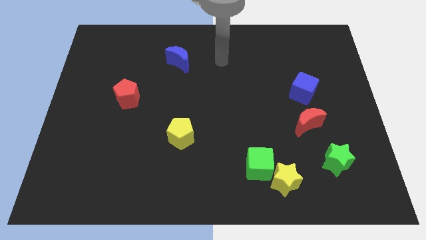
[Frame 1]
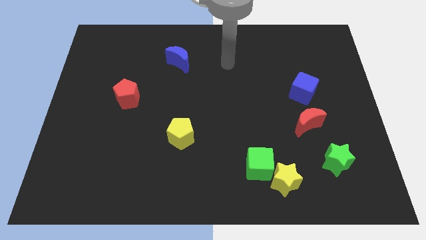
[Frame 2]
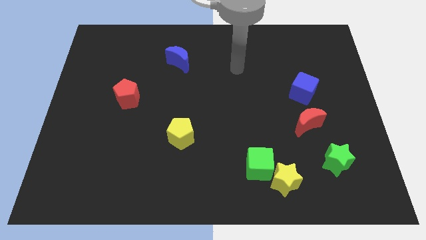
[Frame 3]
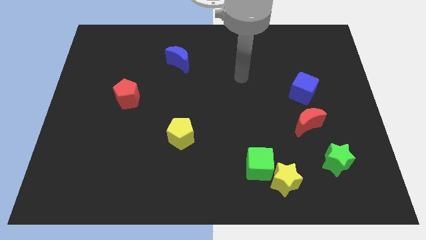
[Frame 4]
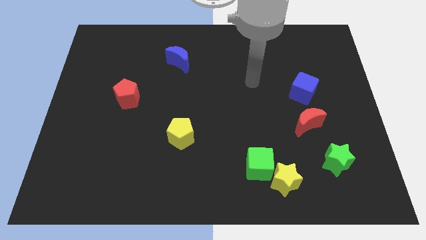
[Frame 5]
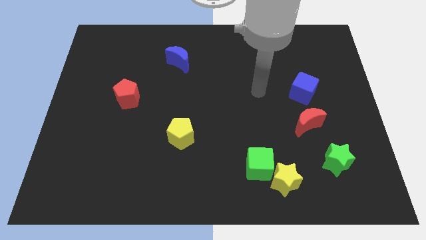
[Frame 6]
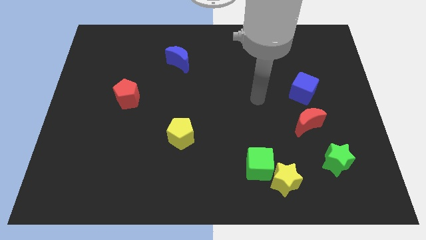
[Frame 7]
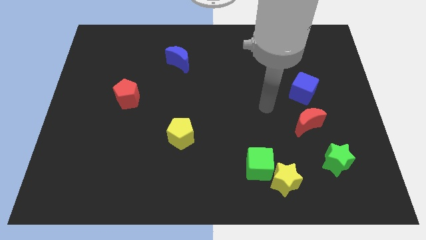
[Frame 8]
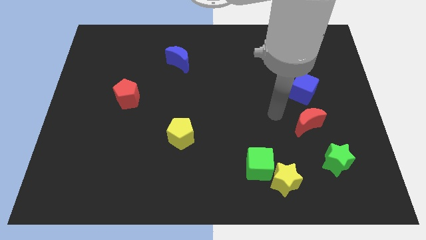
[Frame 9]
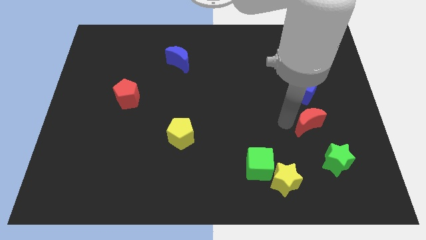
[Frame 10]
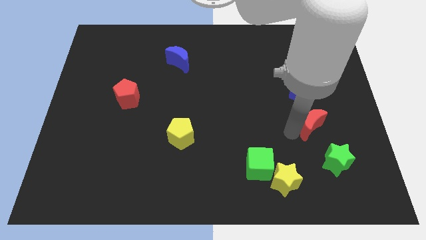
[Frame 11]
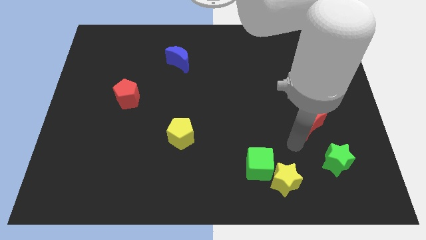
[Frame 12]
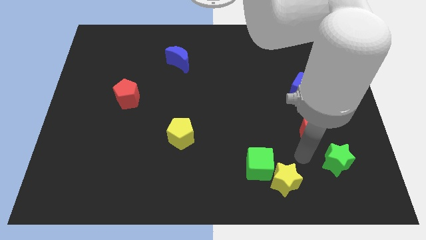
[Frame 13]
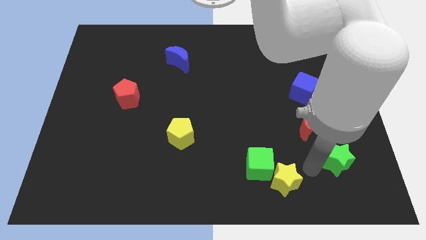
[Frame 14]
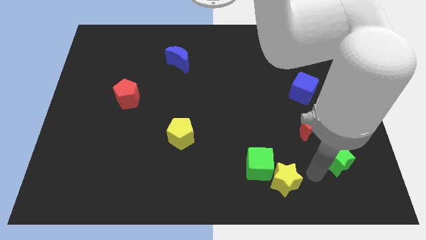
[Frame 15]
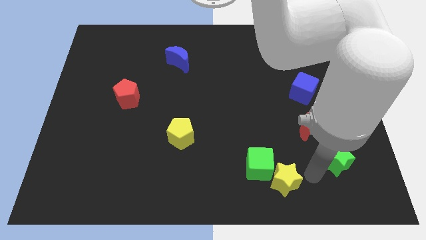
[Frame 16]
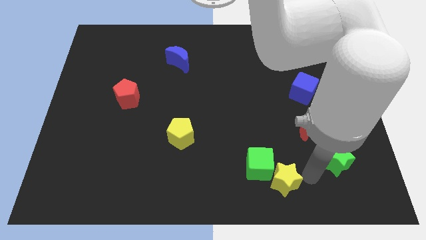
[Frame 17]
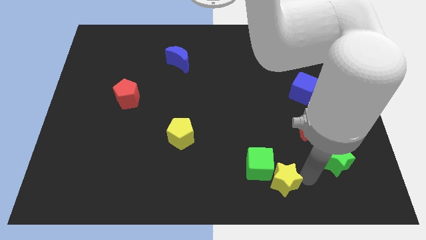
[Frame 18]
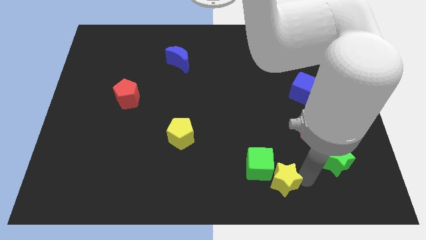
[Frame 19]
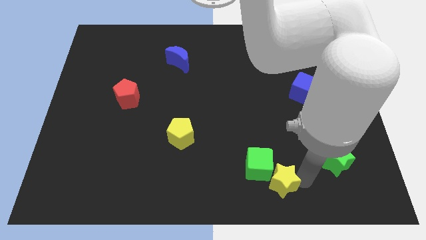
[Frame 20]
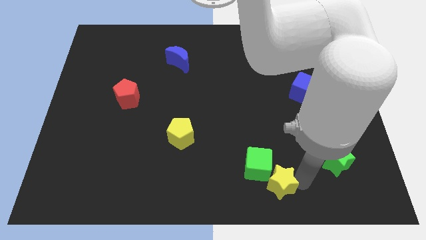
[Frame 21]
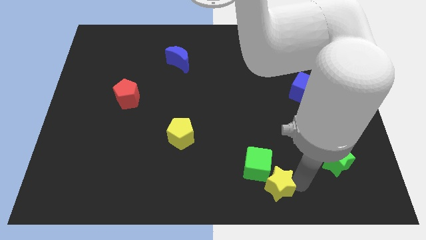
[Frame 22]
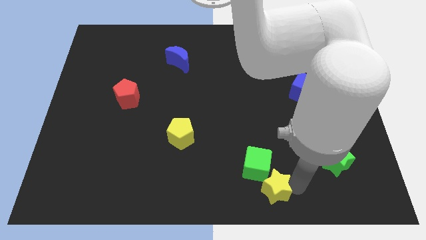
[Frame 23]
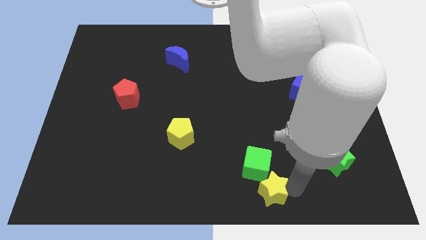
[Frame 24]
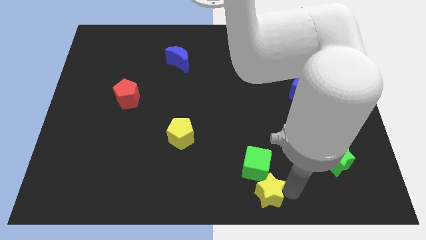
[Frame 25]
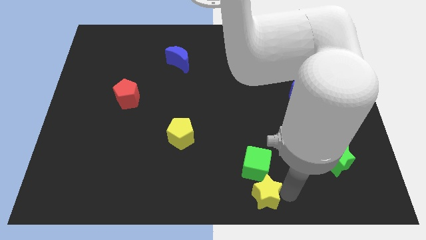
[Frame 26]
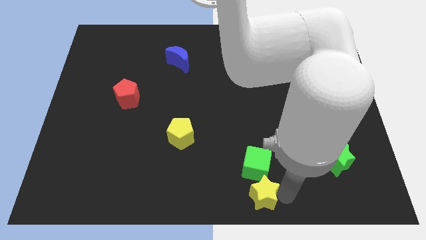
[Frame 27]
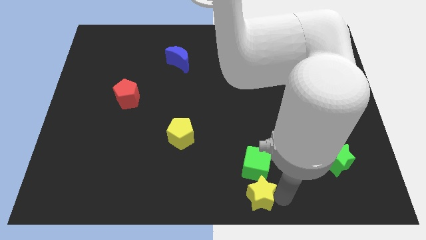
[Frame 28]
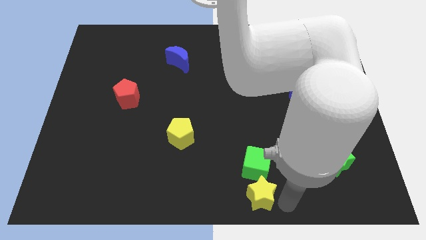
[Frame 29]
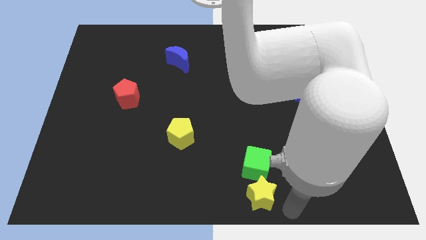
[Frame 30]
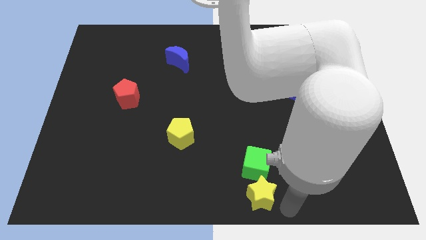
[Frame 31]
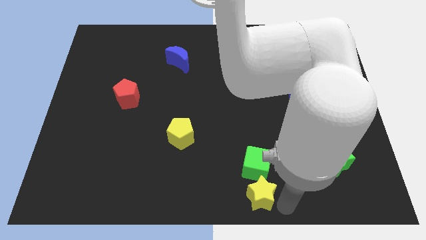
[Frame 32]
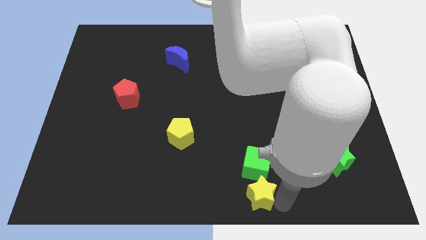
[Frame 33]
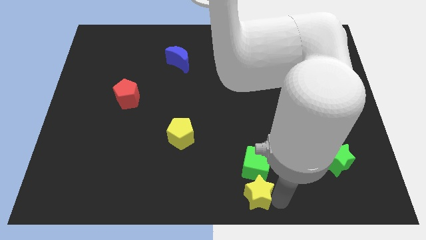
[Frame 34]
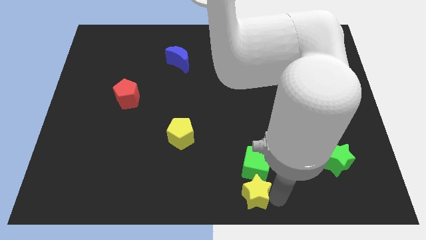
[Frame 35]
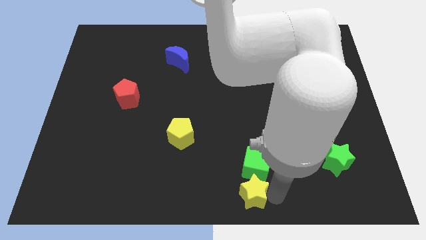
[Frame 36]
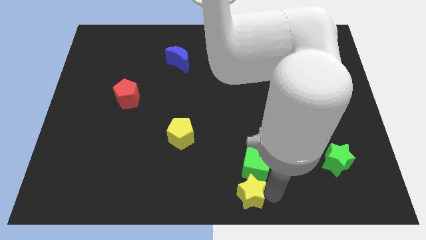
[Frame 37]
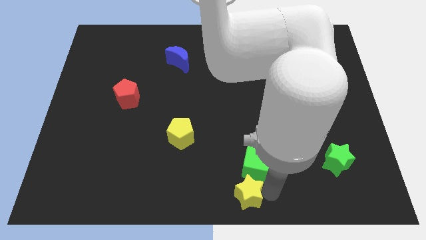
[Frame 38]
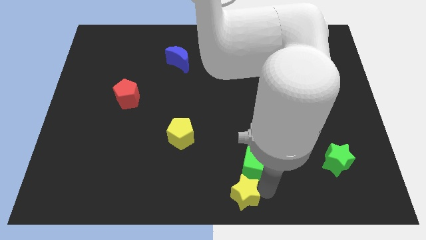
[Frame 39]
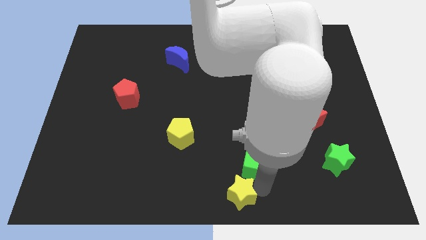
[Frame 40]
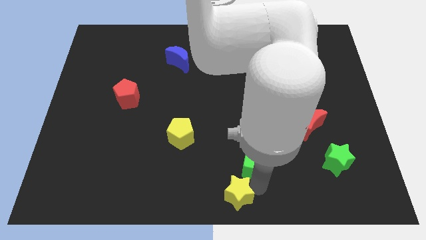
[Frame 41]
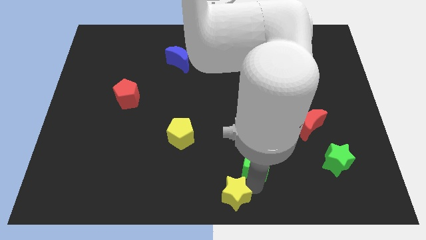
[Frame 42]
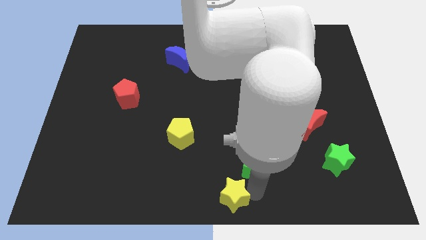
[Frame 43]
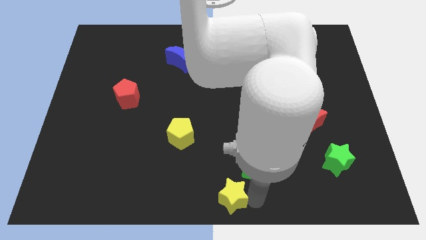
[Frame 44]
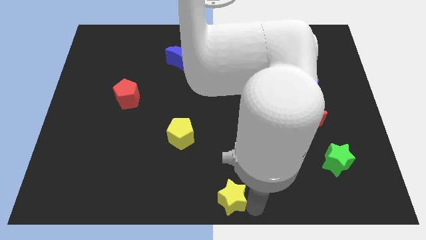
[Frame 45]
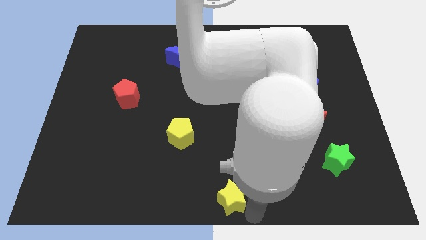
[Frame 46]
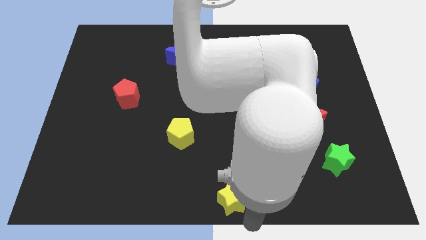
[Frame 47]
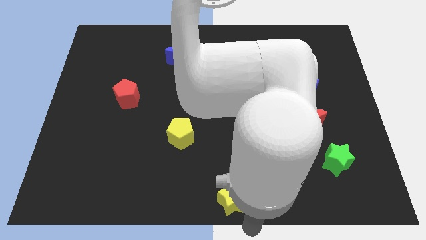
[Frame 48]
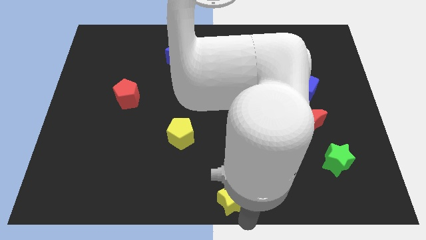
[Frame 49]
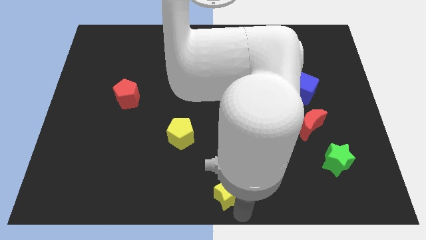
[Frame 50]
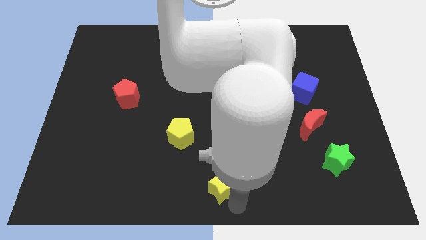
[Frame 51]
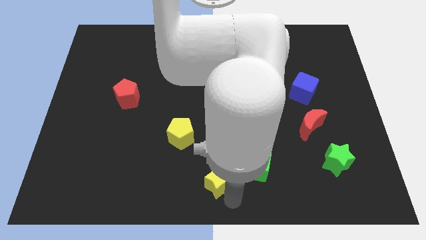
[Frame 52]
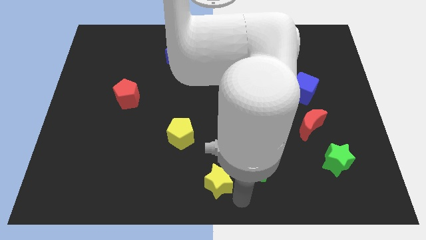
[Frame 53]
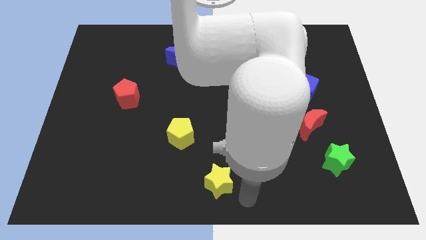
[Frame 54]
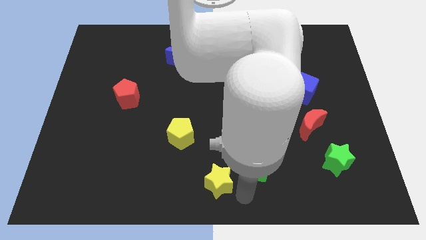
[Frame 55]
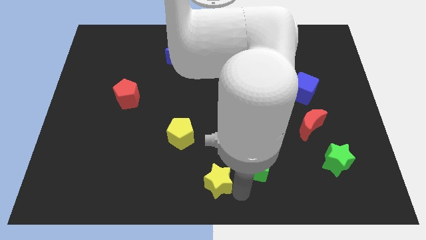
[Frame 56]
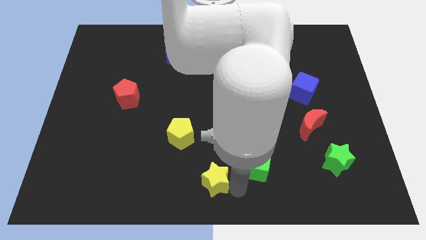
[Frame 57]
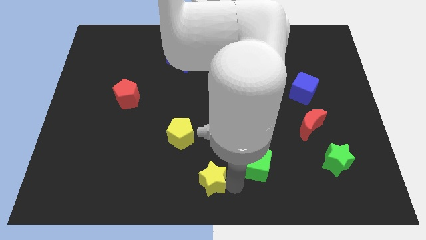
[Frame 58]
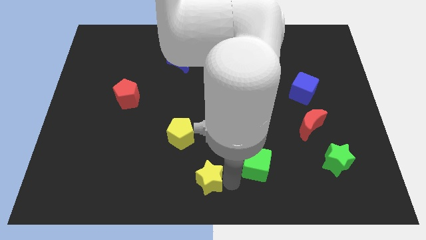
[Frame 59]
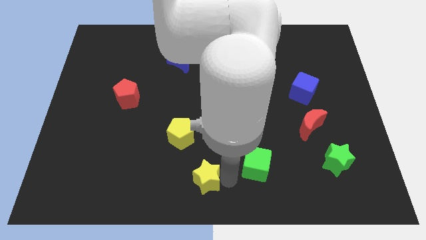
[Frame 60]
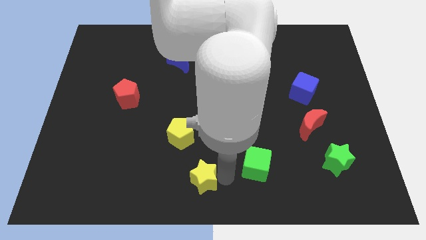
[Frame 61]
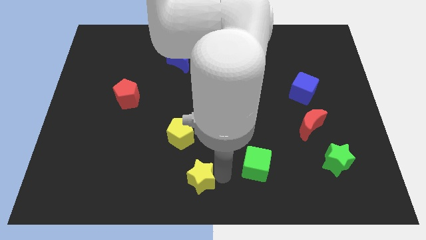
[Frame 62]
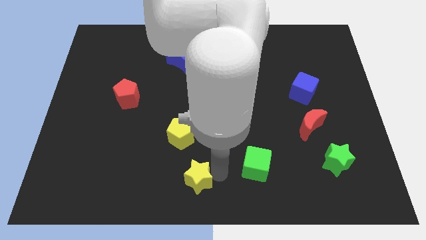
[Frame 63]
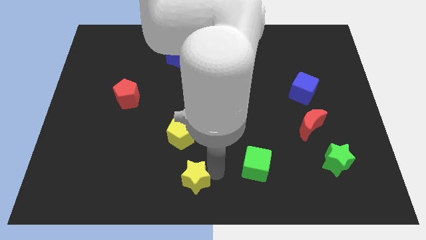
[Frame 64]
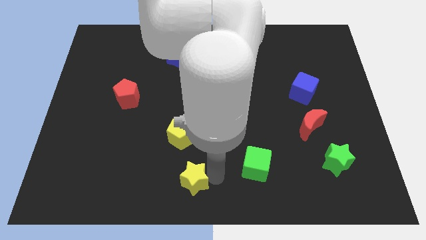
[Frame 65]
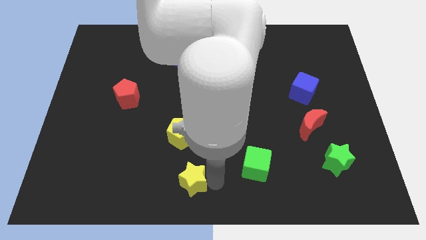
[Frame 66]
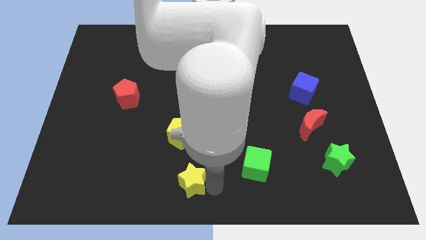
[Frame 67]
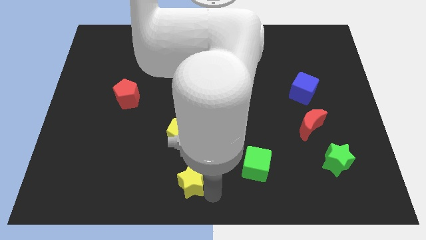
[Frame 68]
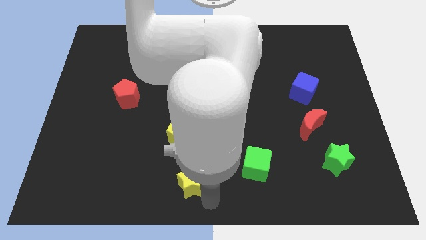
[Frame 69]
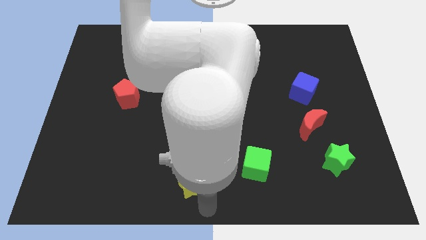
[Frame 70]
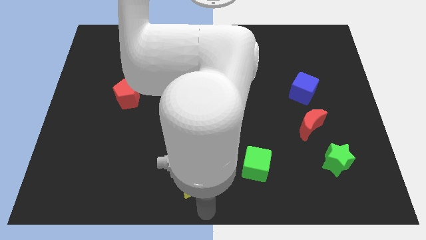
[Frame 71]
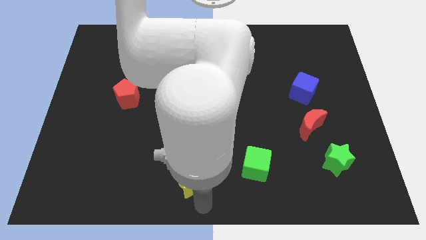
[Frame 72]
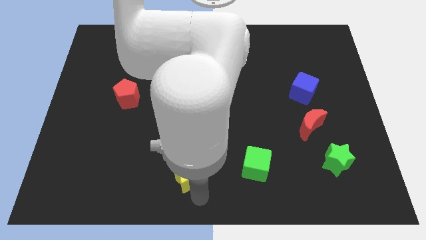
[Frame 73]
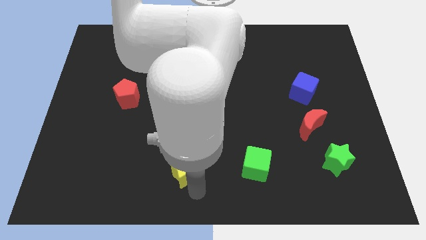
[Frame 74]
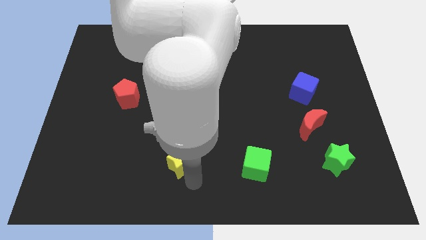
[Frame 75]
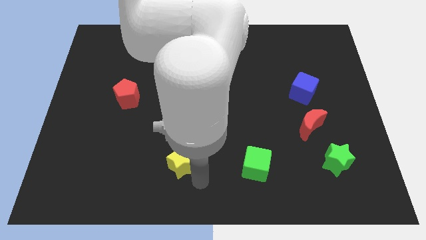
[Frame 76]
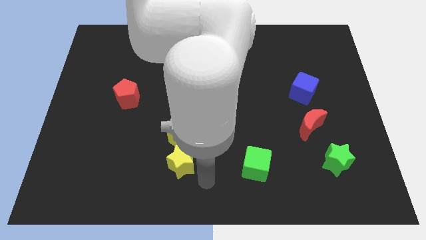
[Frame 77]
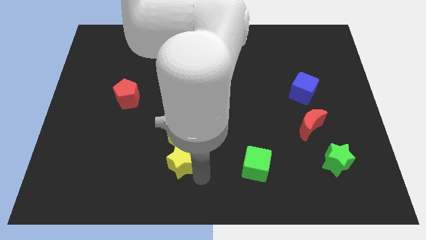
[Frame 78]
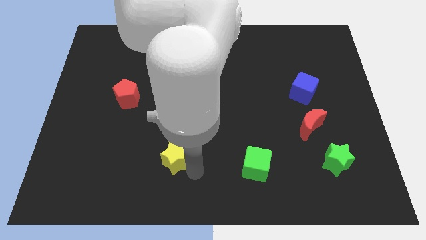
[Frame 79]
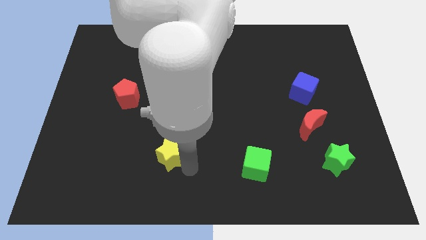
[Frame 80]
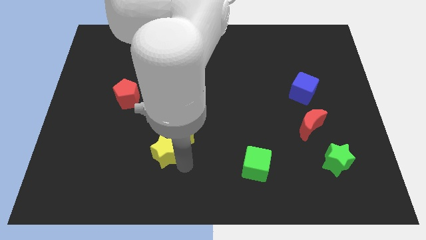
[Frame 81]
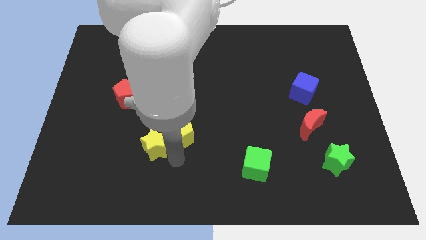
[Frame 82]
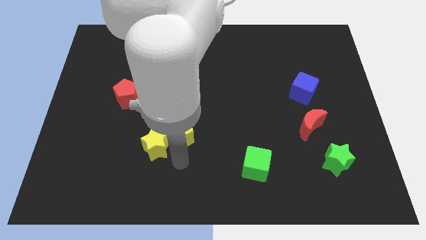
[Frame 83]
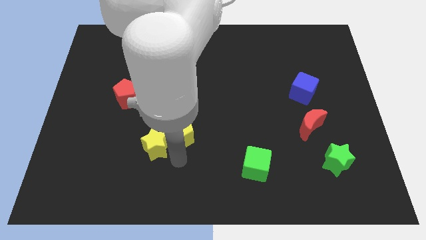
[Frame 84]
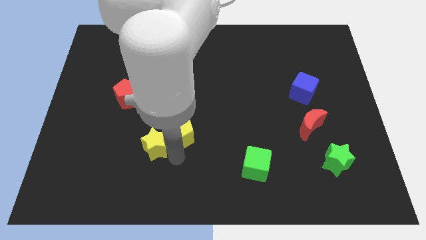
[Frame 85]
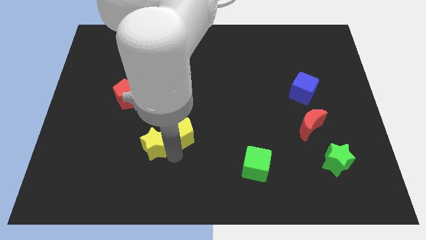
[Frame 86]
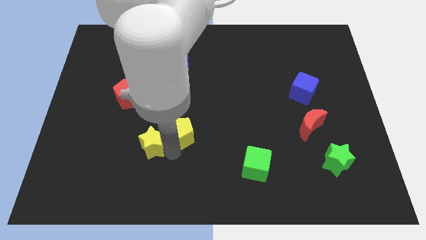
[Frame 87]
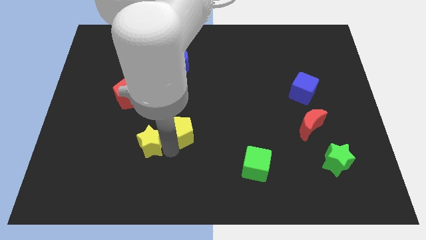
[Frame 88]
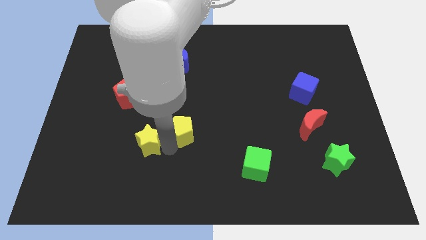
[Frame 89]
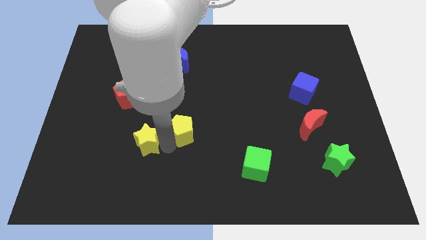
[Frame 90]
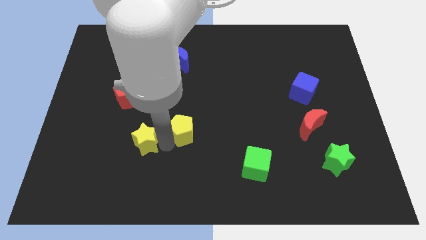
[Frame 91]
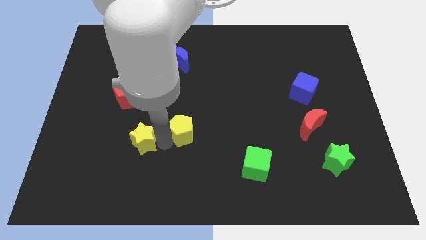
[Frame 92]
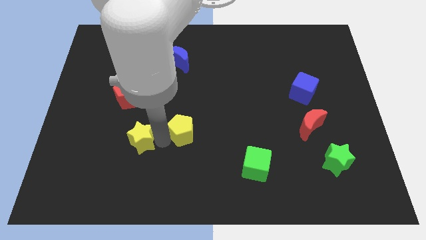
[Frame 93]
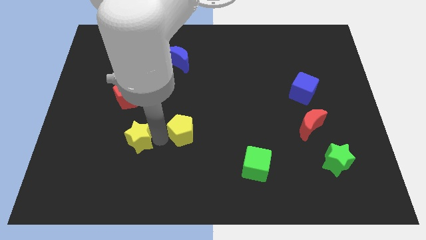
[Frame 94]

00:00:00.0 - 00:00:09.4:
push the yellow star to the bottom side of the red pentagon
